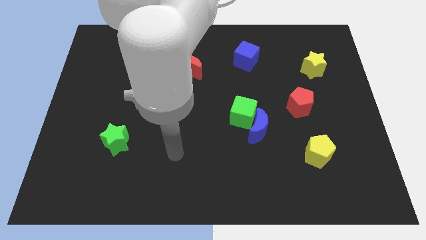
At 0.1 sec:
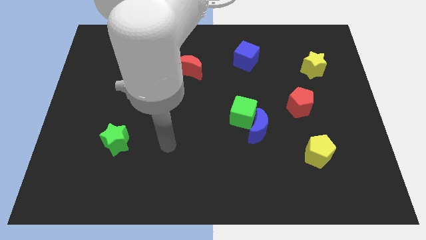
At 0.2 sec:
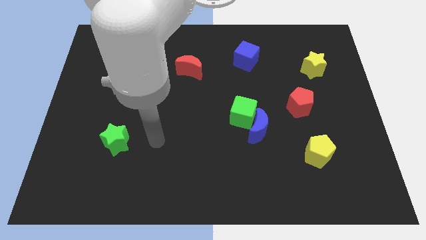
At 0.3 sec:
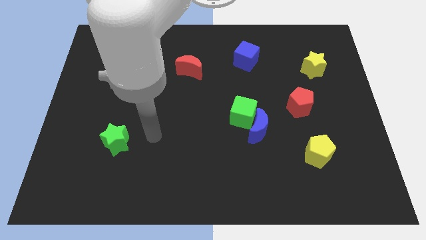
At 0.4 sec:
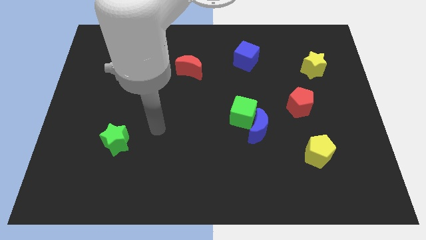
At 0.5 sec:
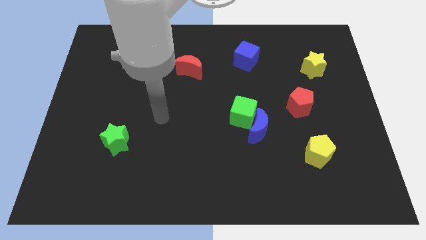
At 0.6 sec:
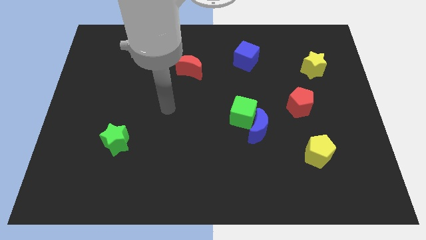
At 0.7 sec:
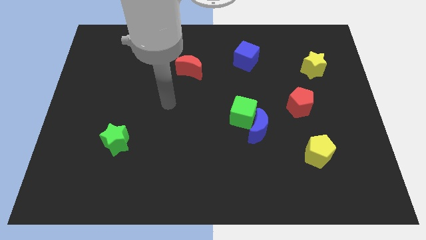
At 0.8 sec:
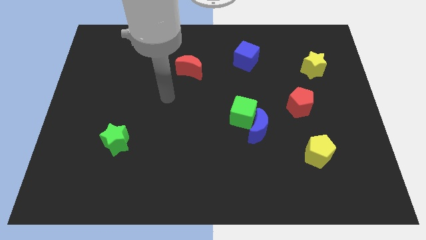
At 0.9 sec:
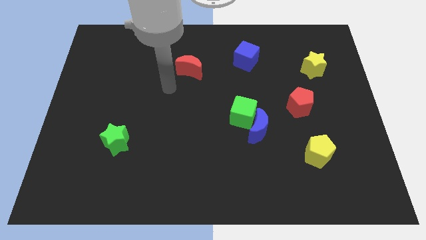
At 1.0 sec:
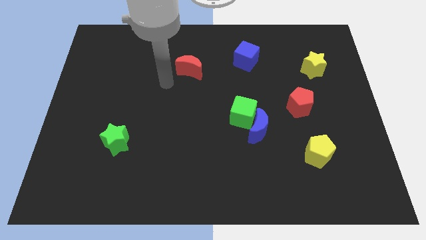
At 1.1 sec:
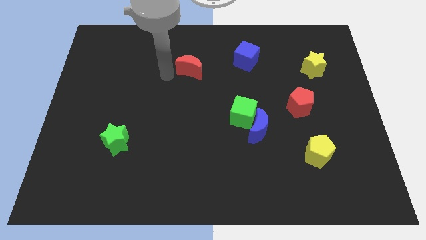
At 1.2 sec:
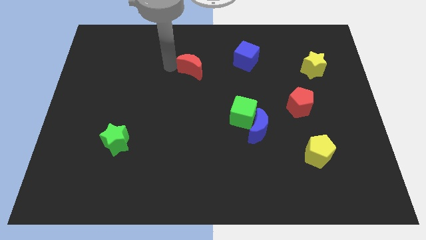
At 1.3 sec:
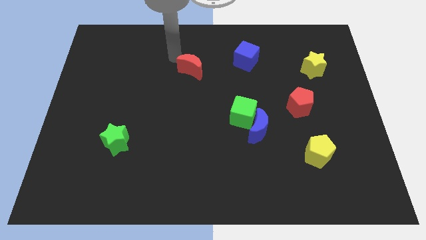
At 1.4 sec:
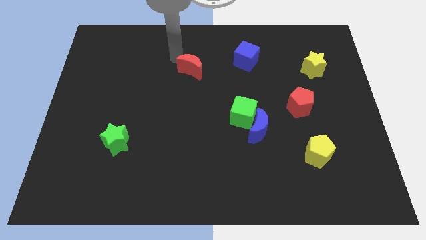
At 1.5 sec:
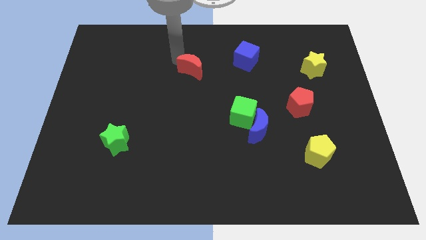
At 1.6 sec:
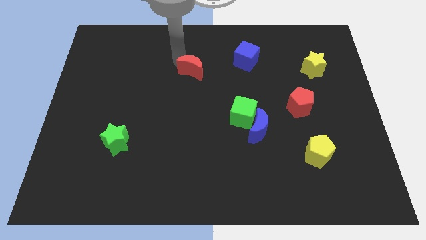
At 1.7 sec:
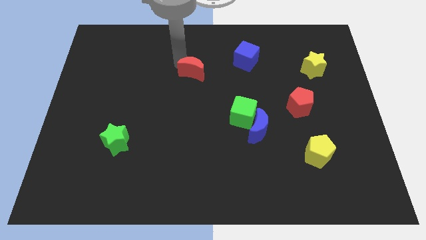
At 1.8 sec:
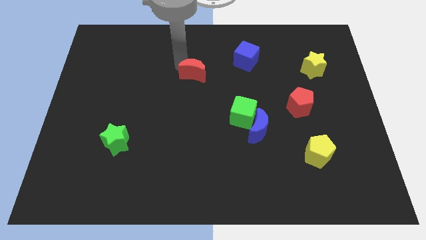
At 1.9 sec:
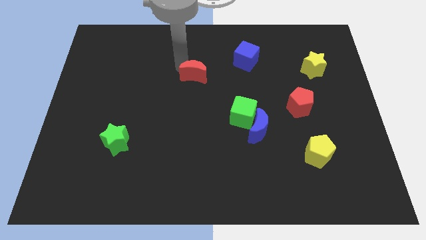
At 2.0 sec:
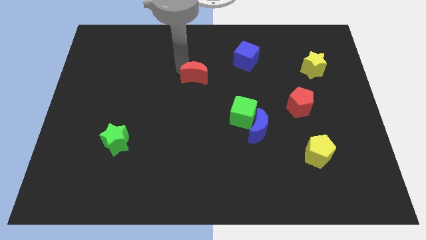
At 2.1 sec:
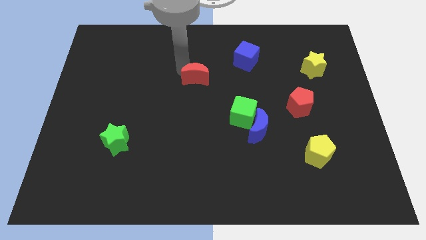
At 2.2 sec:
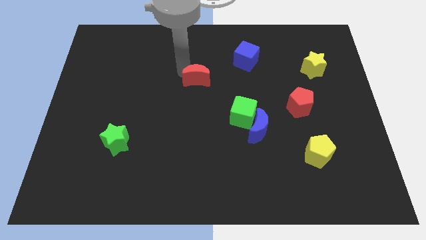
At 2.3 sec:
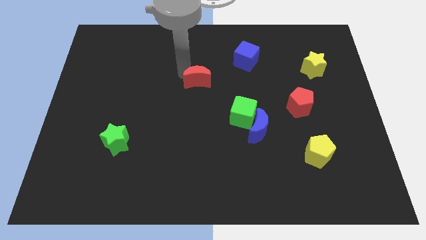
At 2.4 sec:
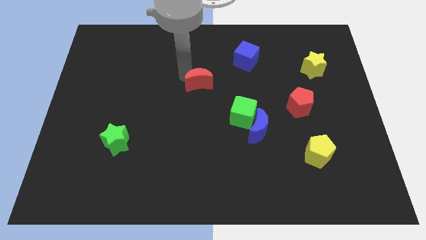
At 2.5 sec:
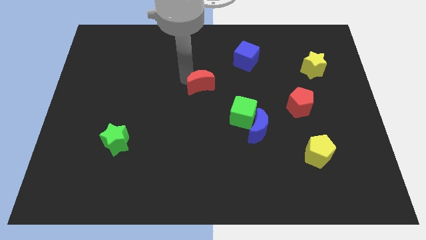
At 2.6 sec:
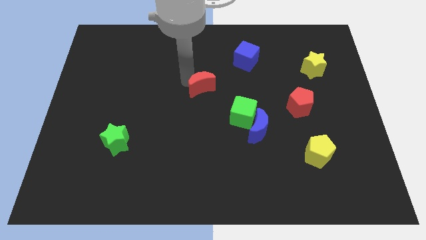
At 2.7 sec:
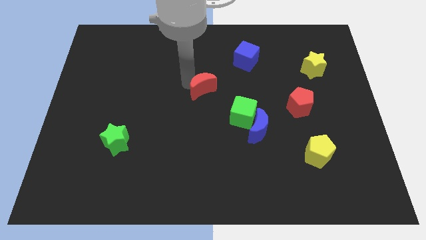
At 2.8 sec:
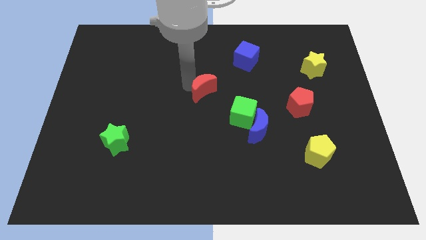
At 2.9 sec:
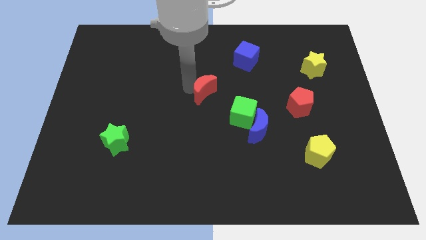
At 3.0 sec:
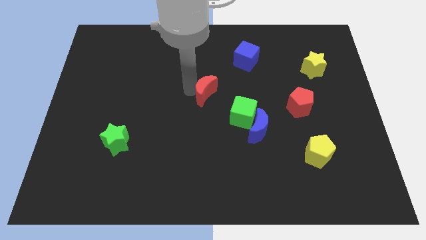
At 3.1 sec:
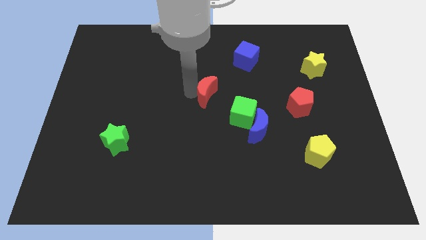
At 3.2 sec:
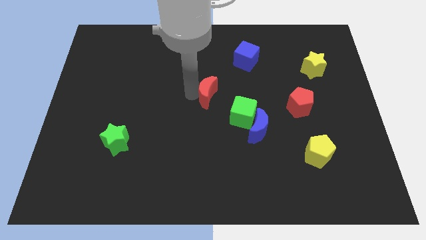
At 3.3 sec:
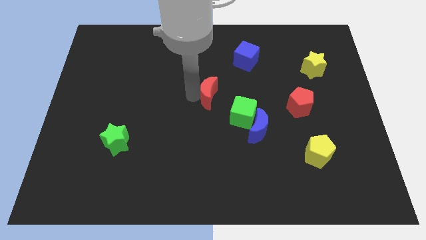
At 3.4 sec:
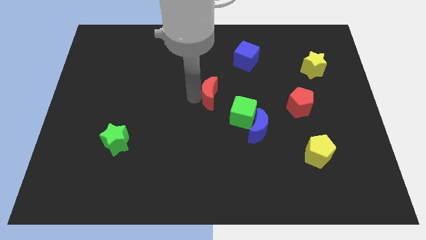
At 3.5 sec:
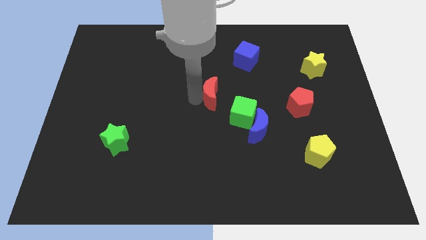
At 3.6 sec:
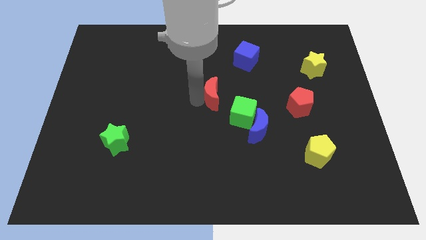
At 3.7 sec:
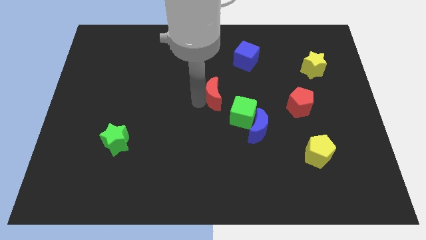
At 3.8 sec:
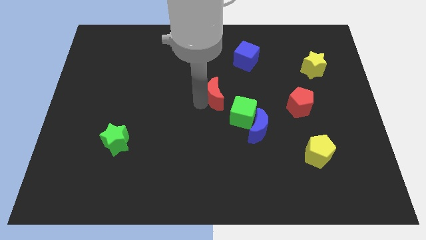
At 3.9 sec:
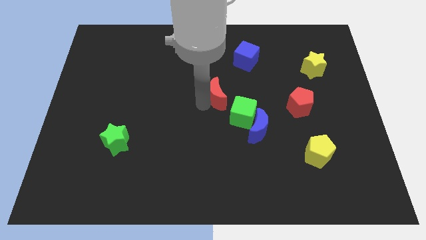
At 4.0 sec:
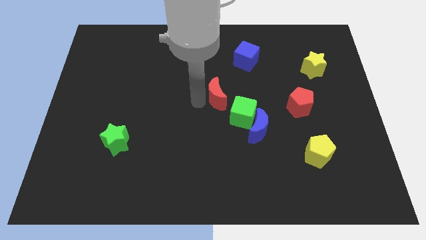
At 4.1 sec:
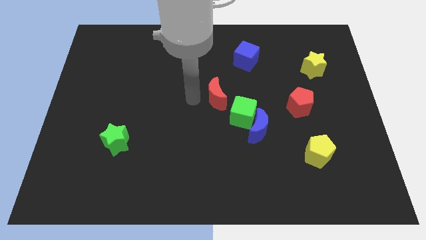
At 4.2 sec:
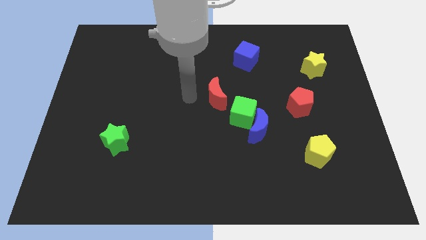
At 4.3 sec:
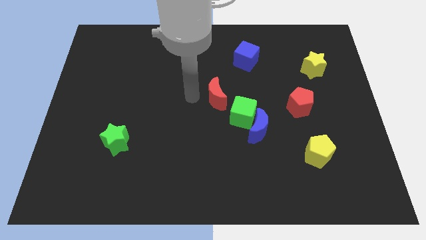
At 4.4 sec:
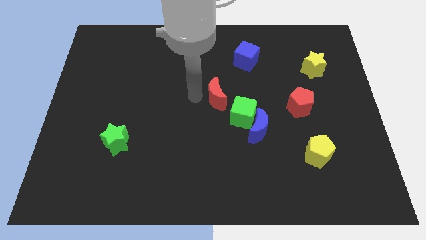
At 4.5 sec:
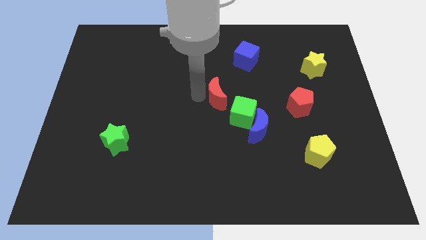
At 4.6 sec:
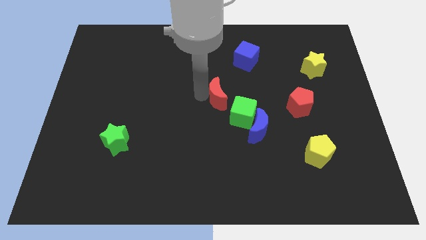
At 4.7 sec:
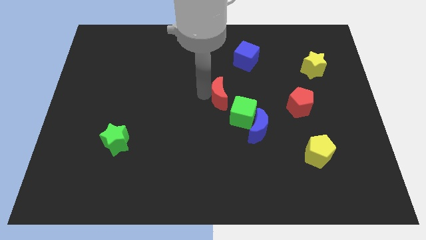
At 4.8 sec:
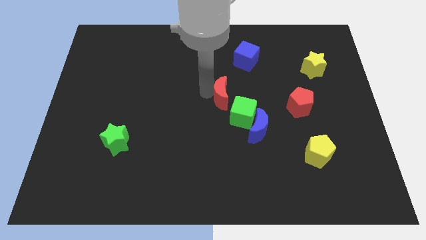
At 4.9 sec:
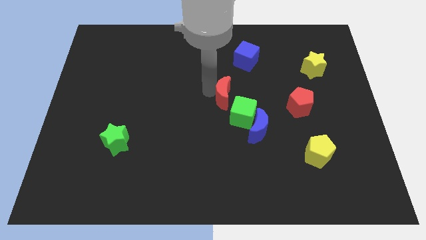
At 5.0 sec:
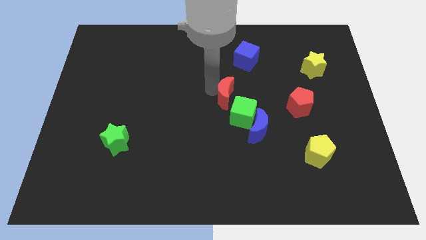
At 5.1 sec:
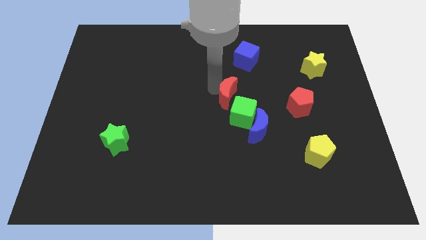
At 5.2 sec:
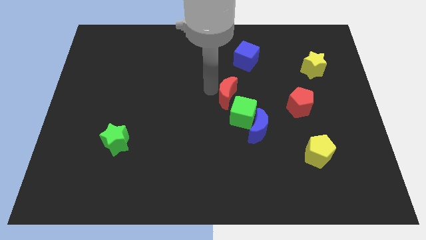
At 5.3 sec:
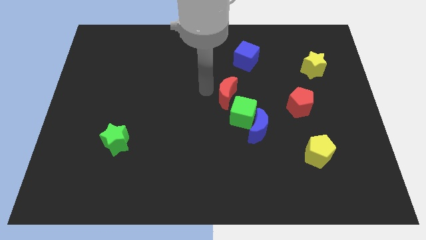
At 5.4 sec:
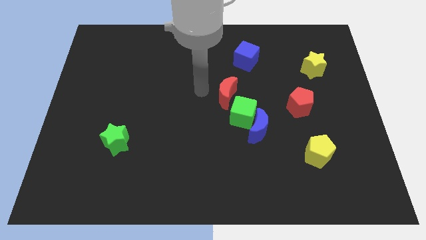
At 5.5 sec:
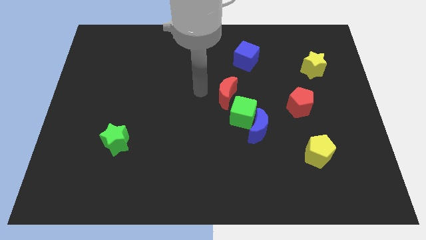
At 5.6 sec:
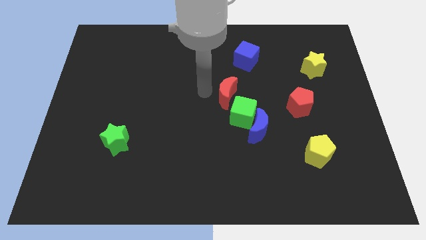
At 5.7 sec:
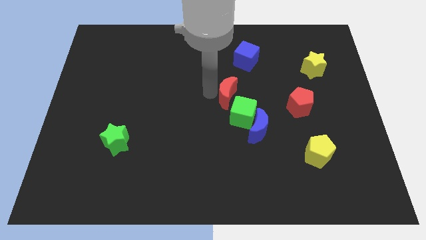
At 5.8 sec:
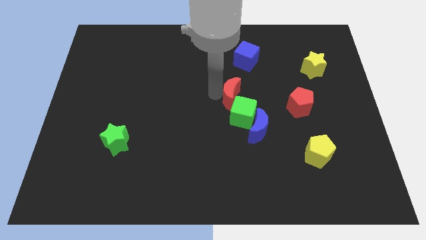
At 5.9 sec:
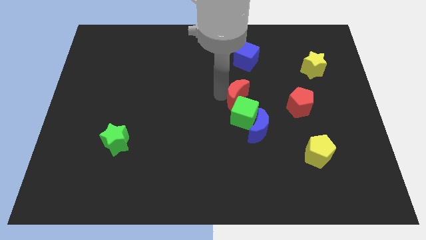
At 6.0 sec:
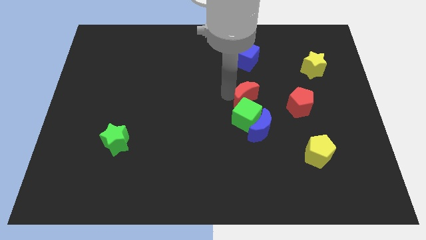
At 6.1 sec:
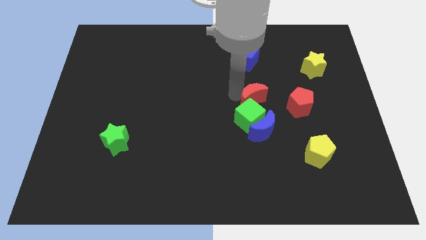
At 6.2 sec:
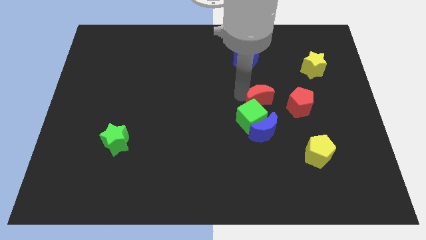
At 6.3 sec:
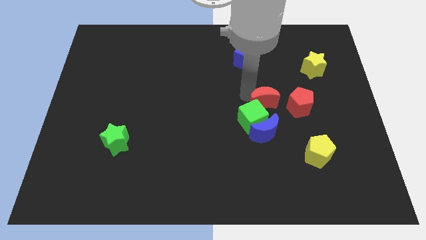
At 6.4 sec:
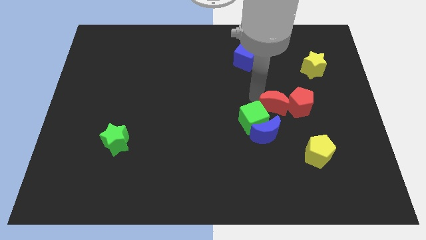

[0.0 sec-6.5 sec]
move the red moon downwards and to the right diagonally

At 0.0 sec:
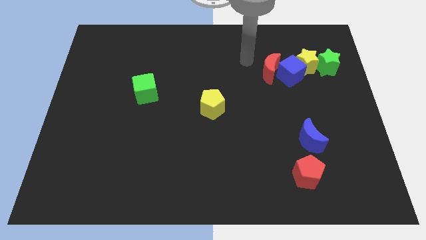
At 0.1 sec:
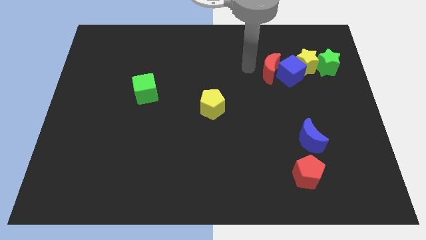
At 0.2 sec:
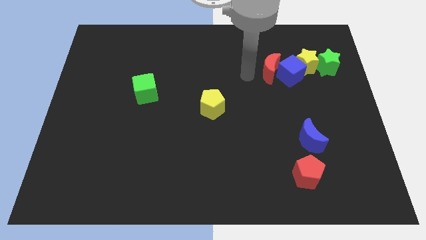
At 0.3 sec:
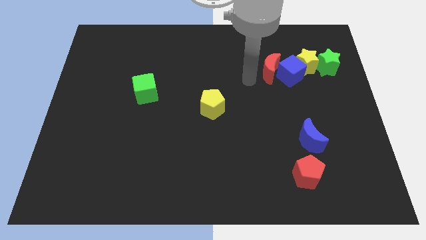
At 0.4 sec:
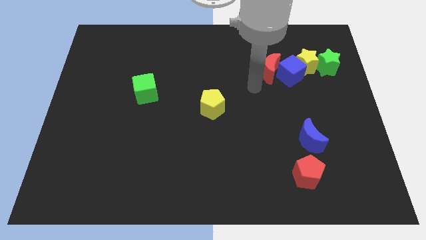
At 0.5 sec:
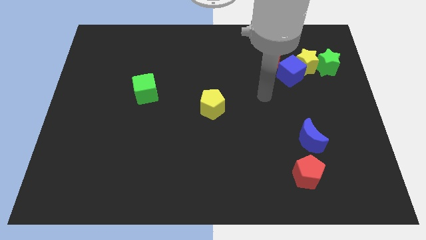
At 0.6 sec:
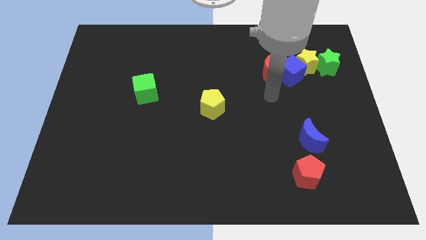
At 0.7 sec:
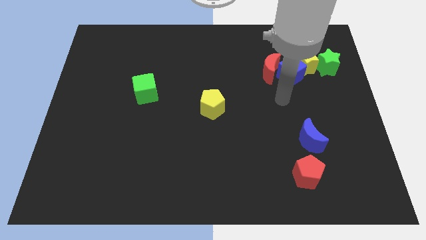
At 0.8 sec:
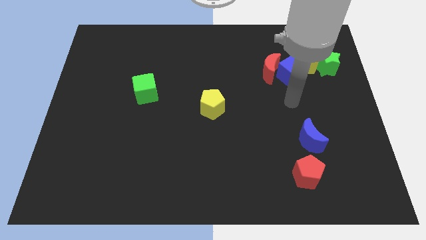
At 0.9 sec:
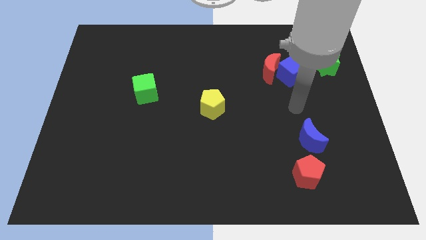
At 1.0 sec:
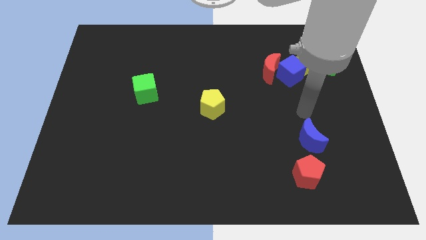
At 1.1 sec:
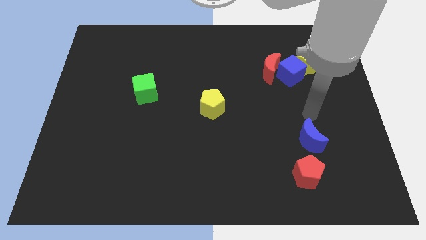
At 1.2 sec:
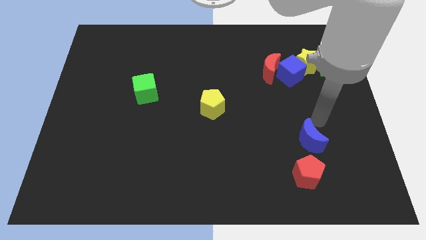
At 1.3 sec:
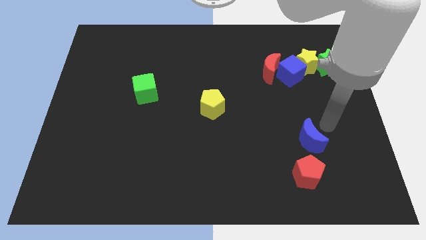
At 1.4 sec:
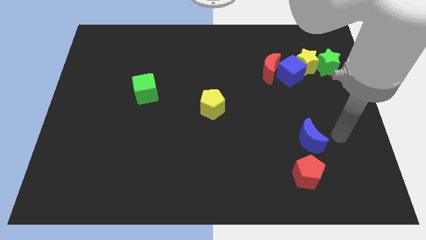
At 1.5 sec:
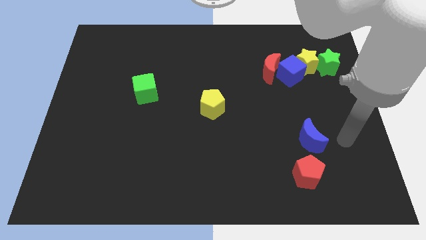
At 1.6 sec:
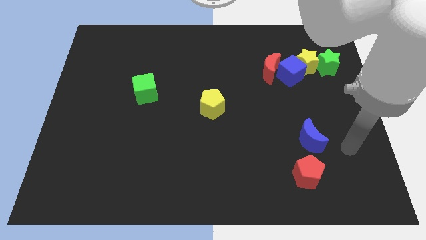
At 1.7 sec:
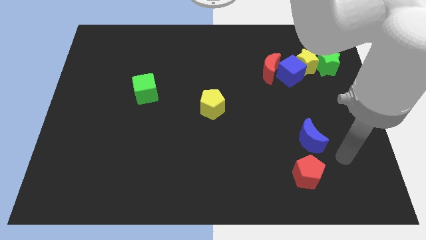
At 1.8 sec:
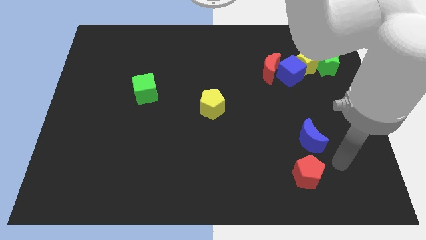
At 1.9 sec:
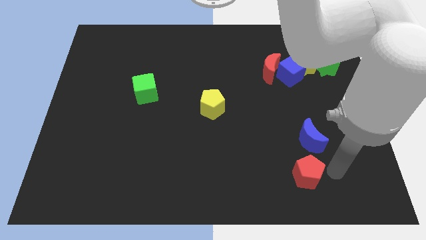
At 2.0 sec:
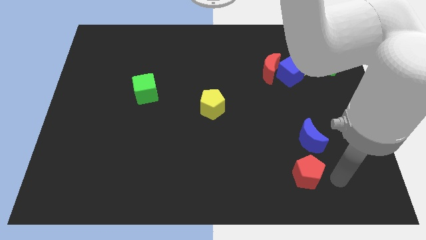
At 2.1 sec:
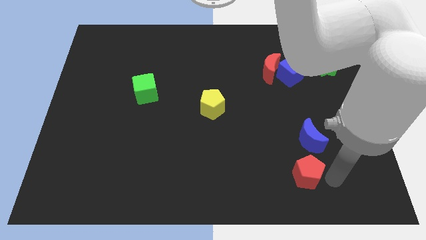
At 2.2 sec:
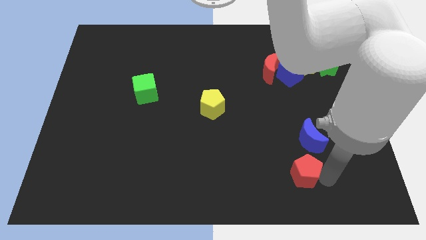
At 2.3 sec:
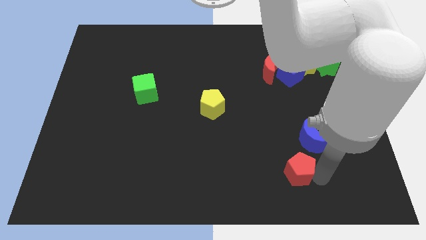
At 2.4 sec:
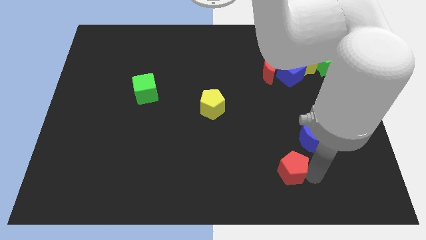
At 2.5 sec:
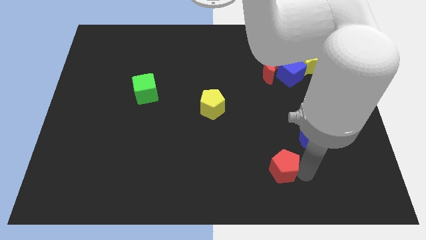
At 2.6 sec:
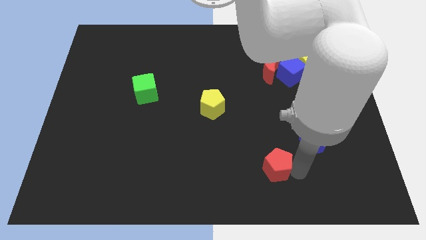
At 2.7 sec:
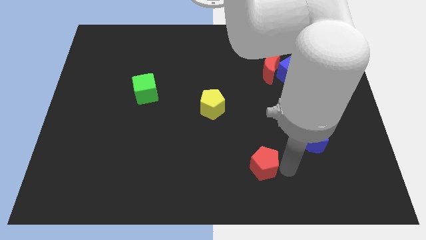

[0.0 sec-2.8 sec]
move the red pentagon slightly left
